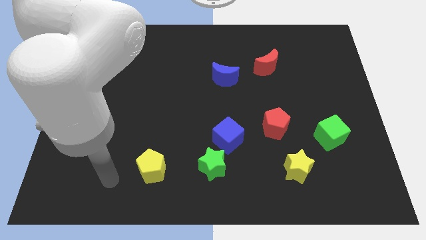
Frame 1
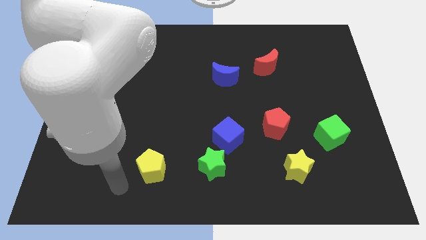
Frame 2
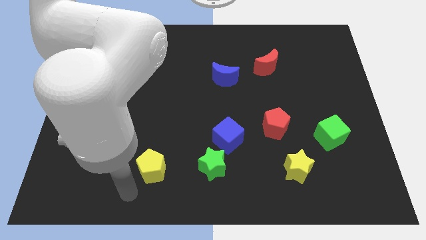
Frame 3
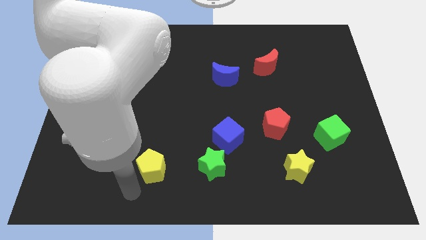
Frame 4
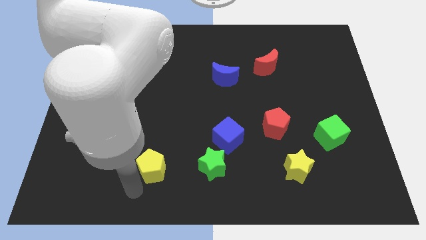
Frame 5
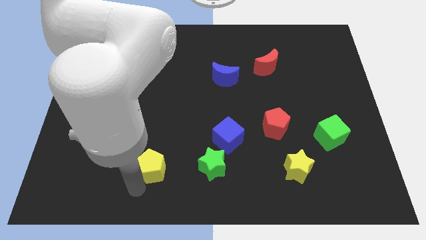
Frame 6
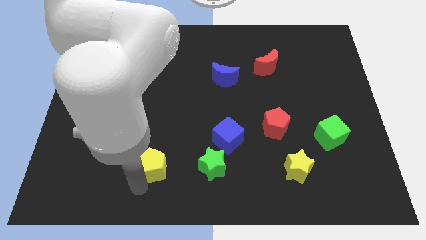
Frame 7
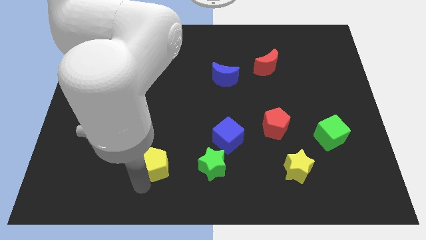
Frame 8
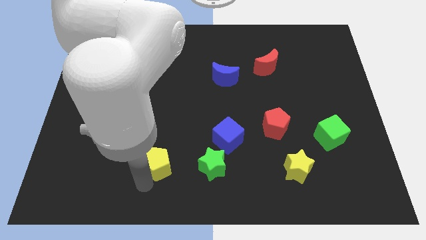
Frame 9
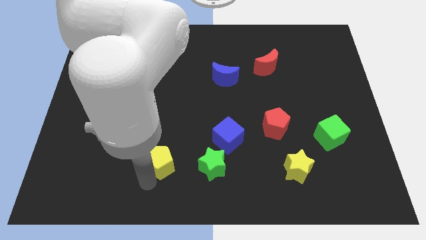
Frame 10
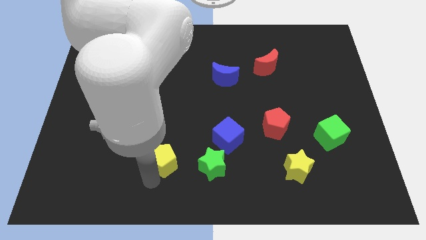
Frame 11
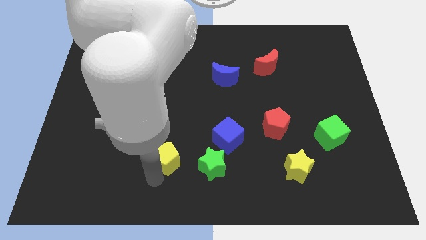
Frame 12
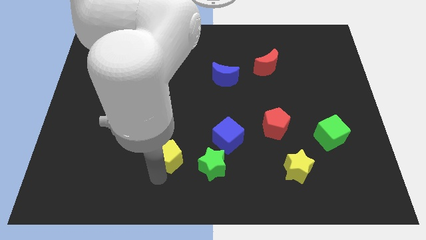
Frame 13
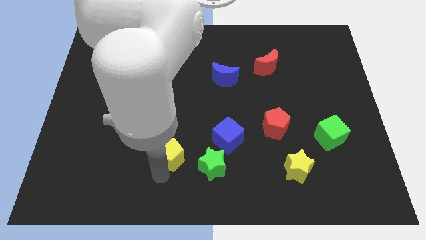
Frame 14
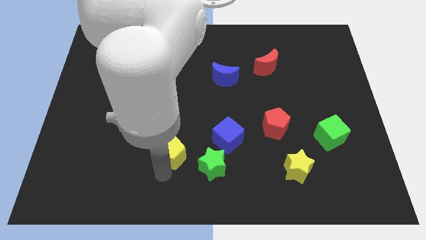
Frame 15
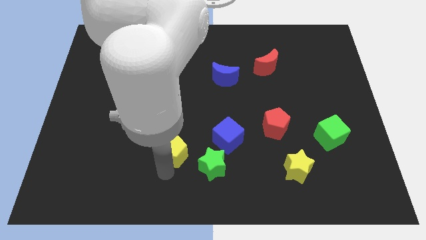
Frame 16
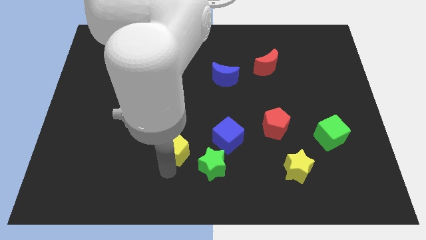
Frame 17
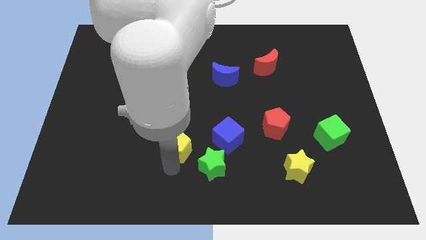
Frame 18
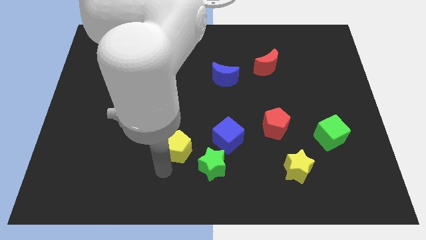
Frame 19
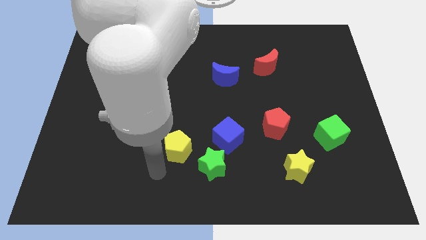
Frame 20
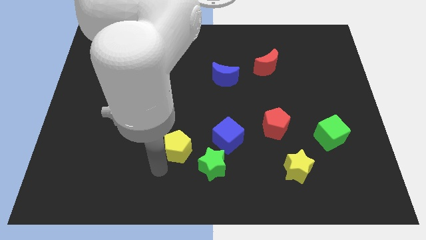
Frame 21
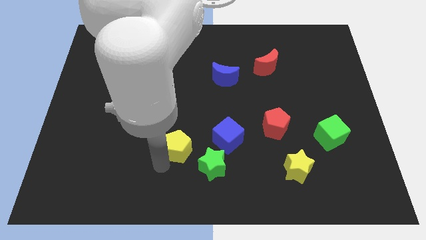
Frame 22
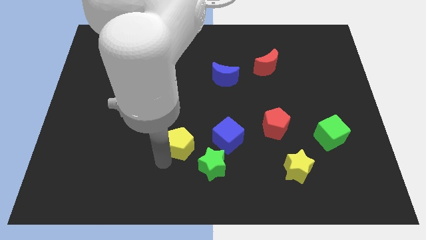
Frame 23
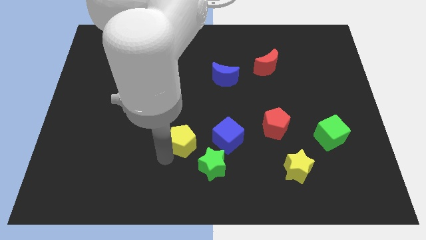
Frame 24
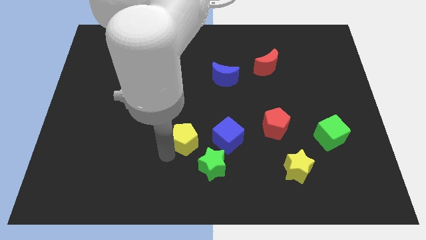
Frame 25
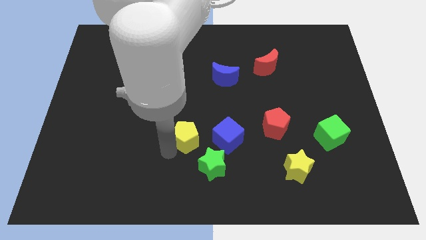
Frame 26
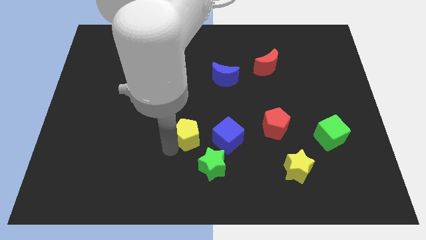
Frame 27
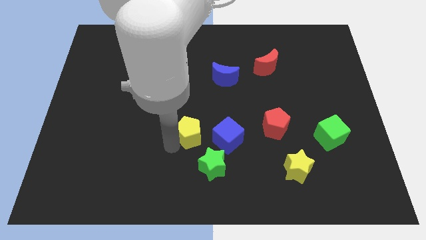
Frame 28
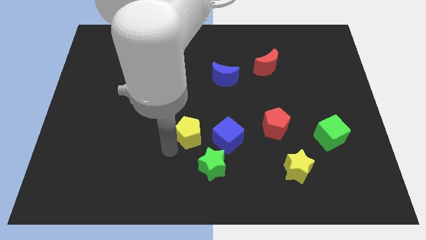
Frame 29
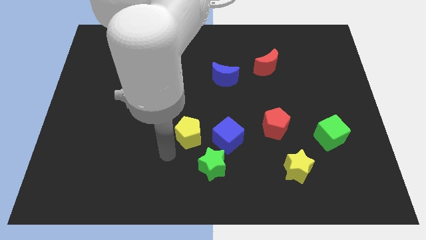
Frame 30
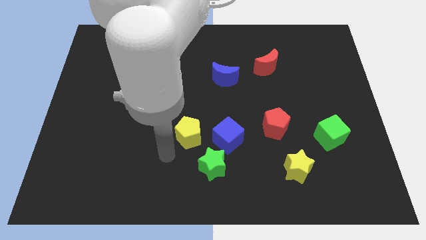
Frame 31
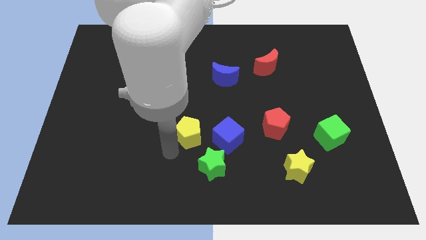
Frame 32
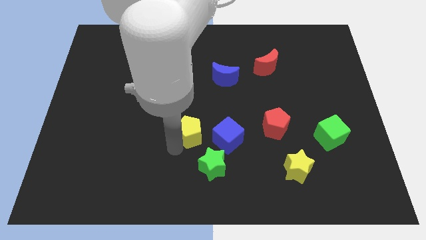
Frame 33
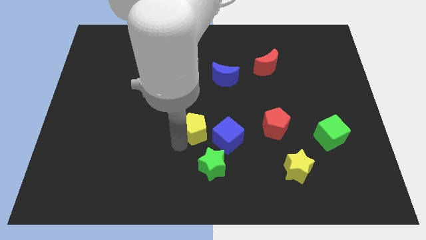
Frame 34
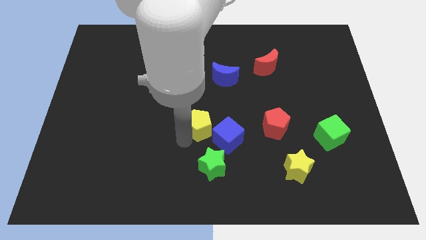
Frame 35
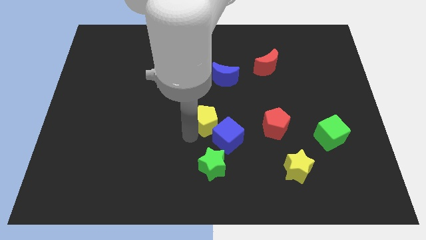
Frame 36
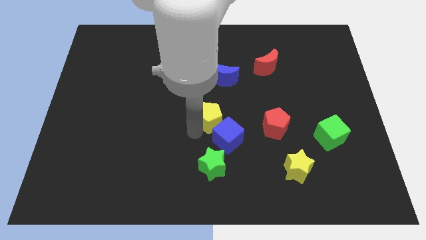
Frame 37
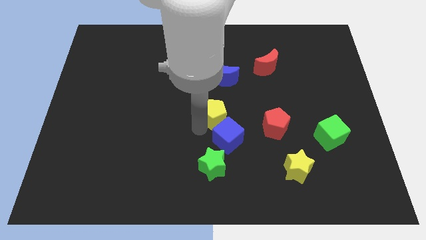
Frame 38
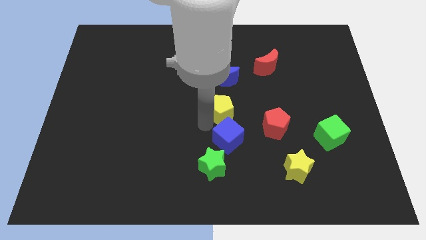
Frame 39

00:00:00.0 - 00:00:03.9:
move the yellow pentagon upwards and to the right diagonally

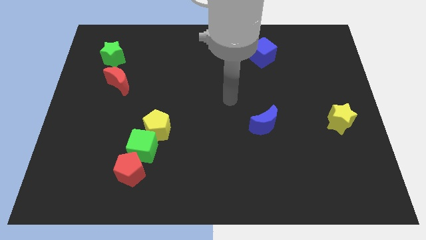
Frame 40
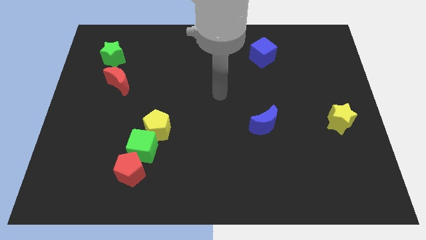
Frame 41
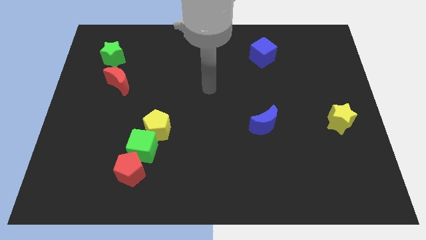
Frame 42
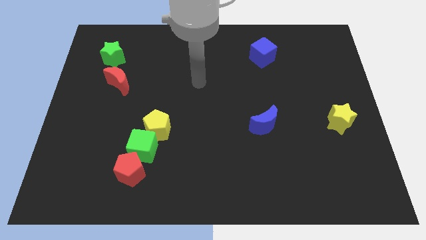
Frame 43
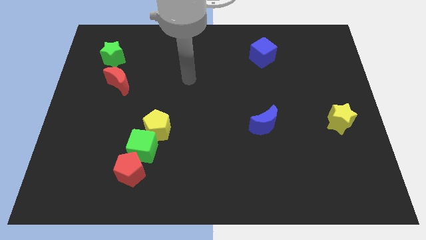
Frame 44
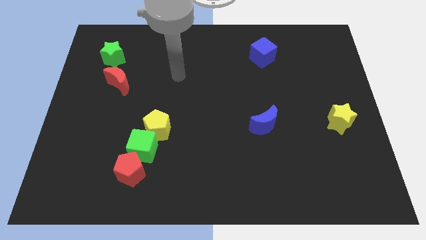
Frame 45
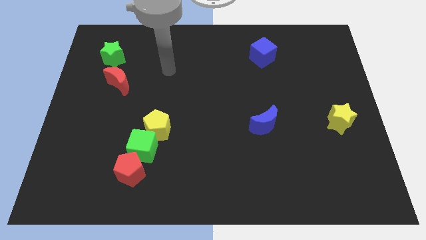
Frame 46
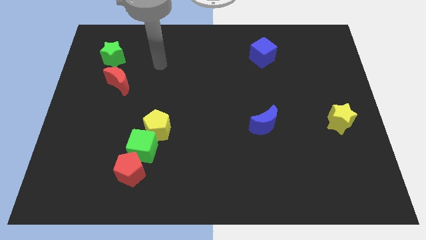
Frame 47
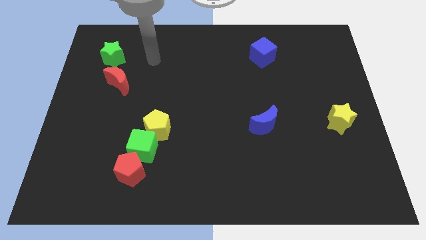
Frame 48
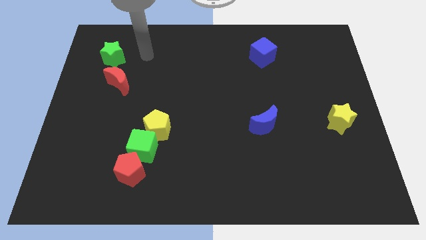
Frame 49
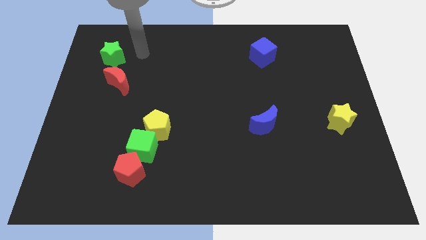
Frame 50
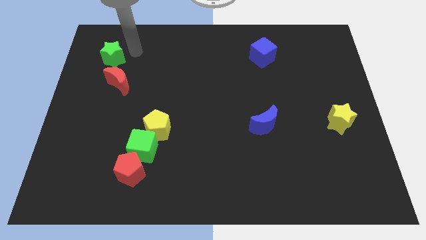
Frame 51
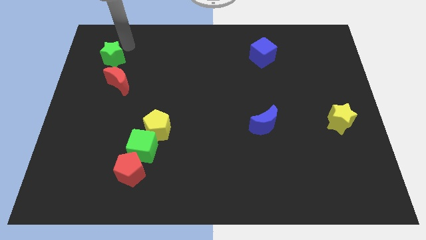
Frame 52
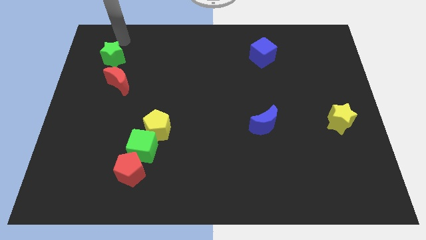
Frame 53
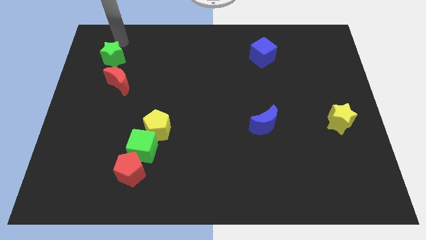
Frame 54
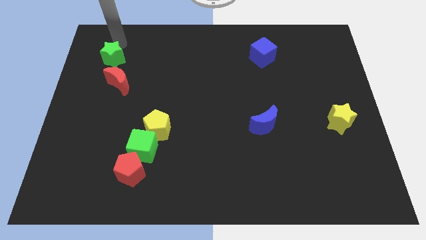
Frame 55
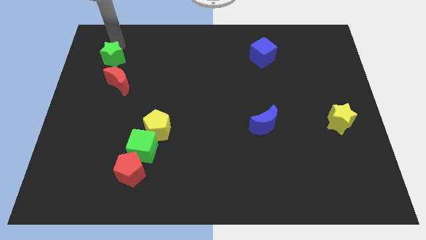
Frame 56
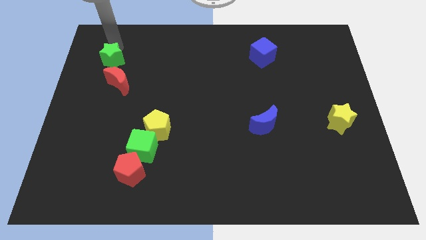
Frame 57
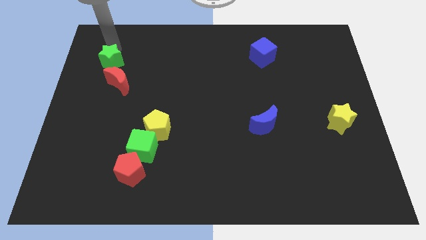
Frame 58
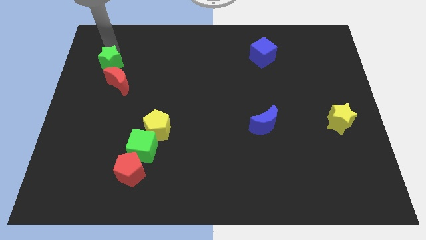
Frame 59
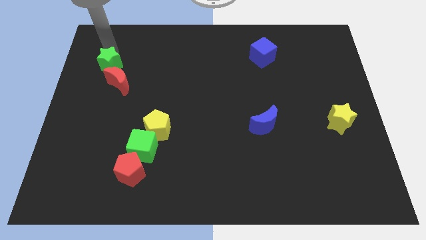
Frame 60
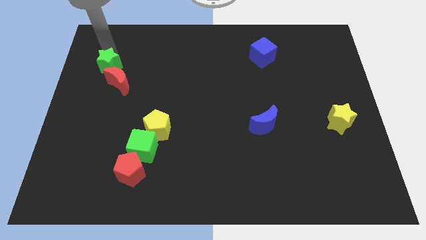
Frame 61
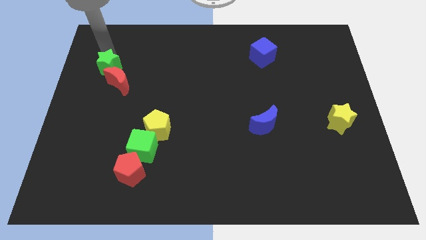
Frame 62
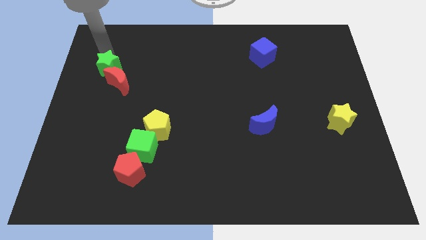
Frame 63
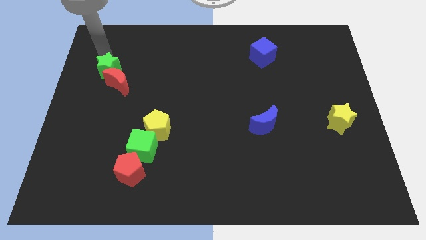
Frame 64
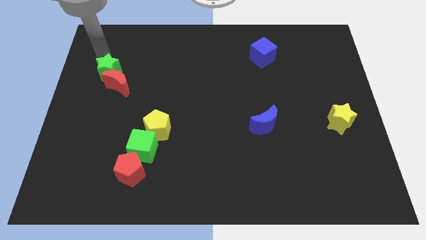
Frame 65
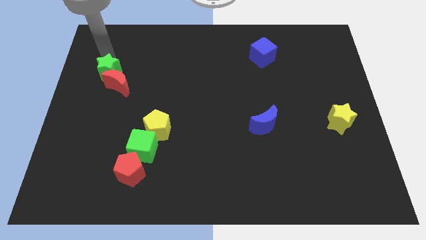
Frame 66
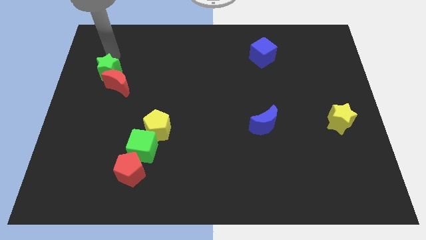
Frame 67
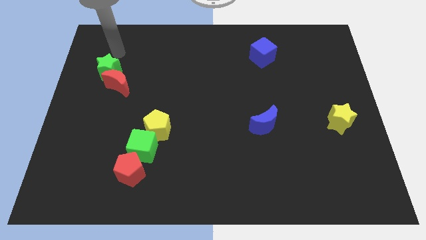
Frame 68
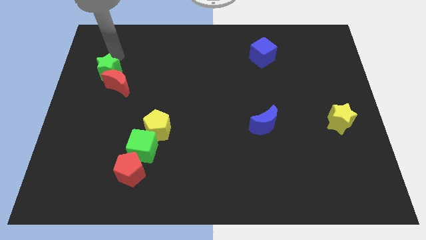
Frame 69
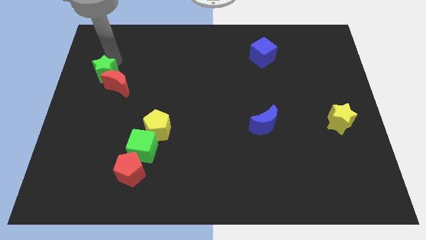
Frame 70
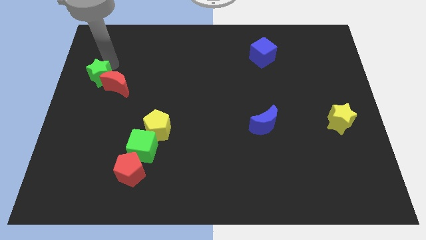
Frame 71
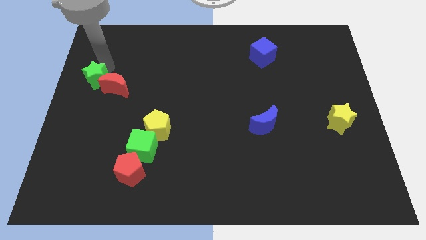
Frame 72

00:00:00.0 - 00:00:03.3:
slide the green star down slightly

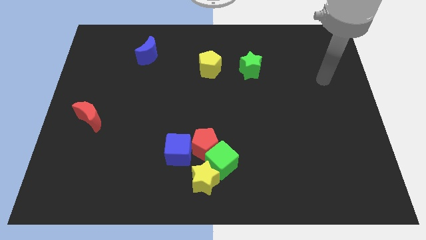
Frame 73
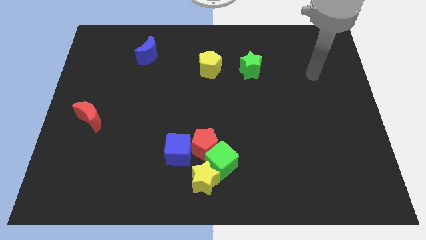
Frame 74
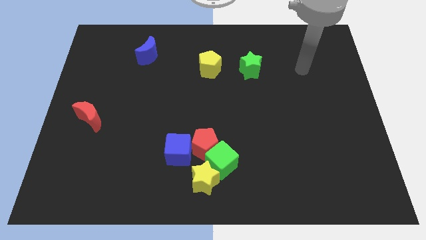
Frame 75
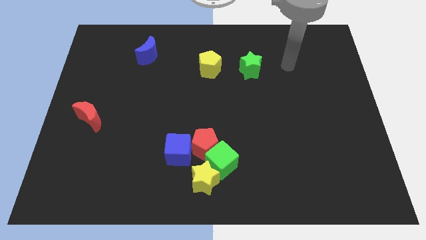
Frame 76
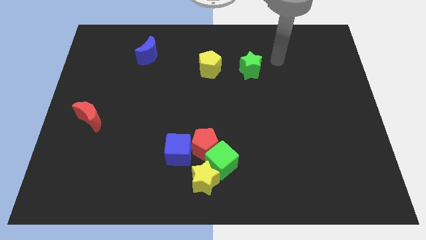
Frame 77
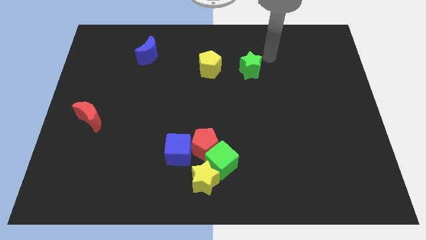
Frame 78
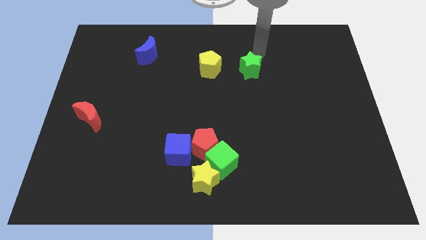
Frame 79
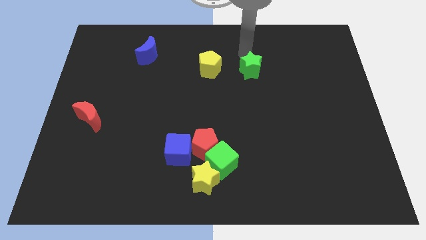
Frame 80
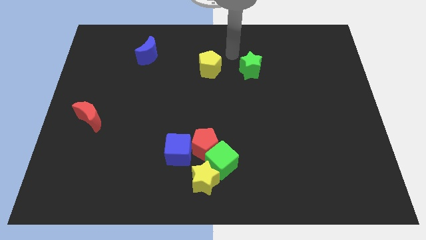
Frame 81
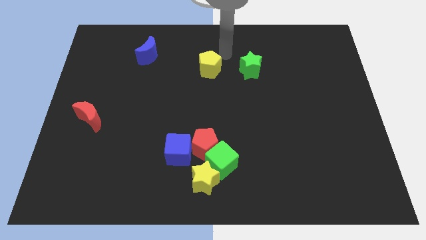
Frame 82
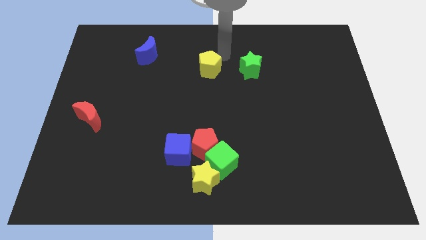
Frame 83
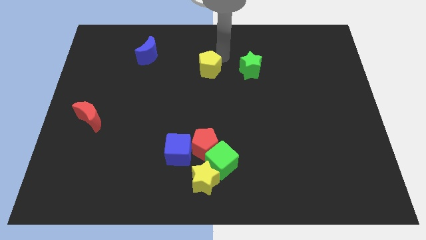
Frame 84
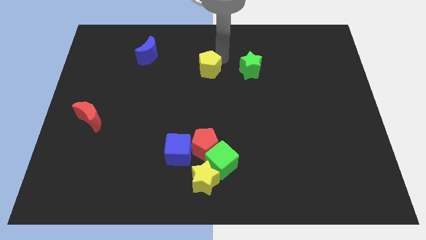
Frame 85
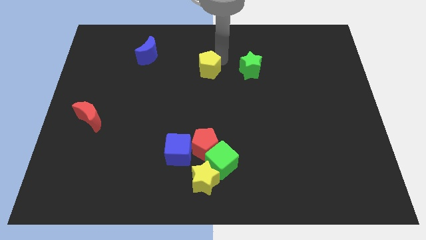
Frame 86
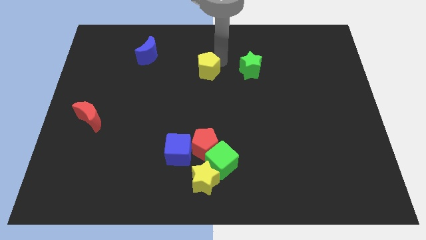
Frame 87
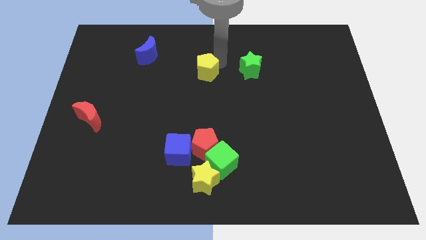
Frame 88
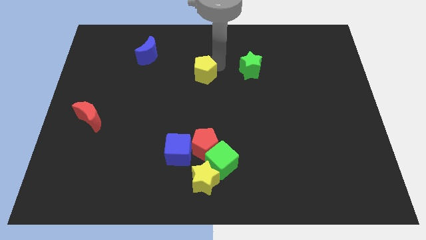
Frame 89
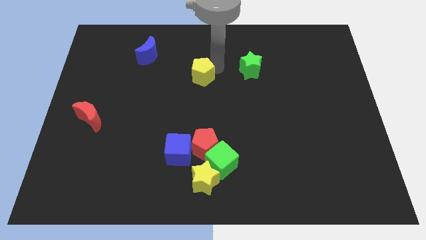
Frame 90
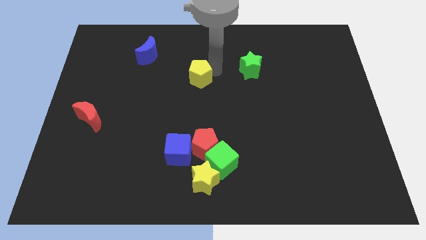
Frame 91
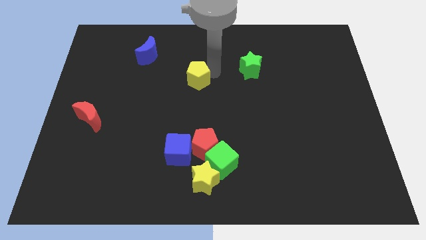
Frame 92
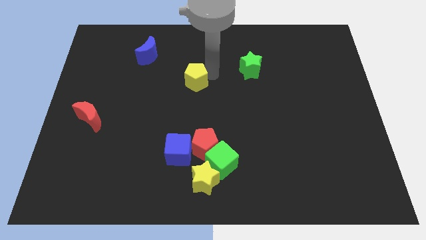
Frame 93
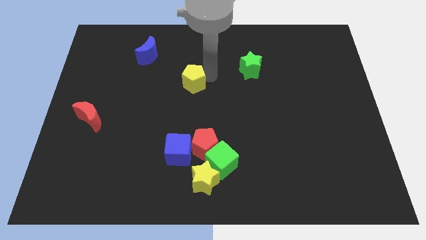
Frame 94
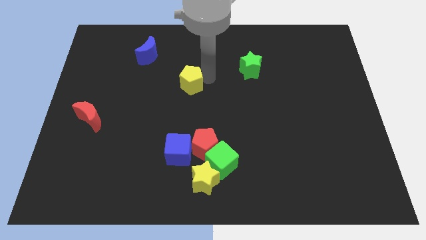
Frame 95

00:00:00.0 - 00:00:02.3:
push the yellow pentagon a little downwards and then left
